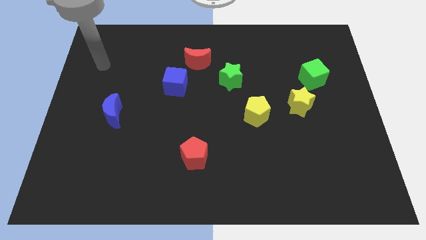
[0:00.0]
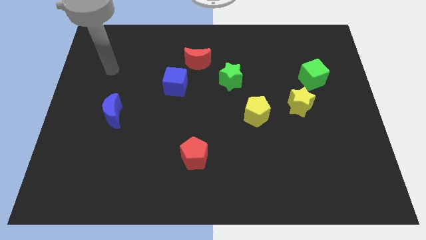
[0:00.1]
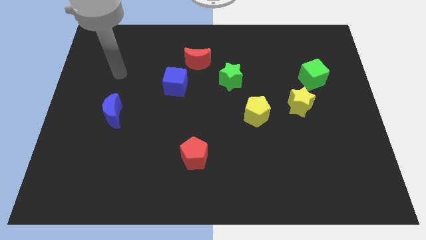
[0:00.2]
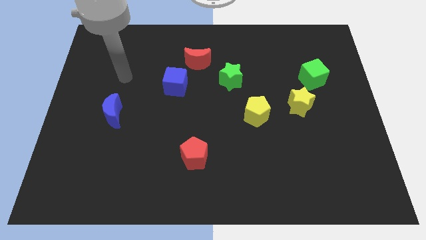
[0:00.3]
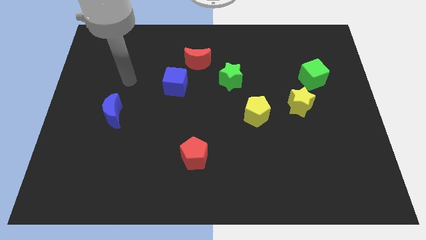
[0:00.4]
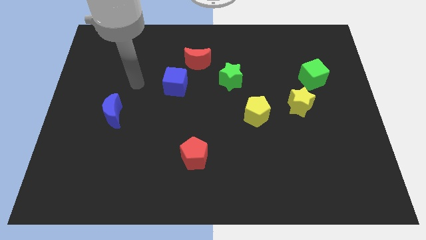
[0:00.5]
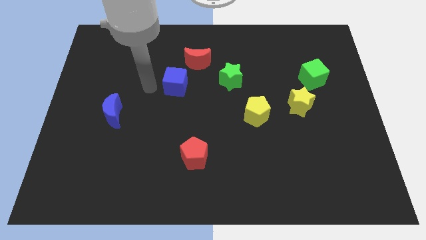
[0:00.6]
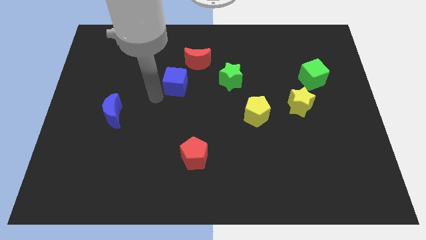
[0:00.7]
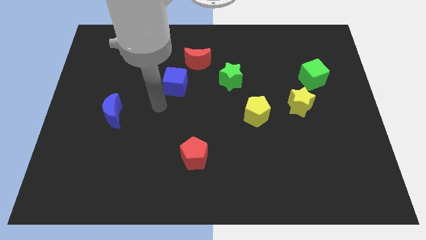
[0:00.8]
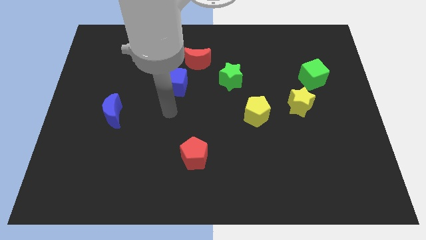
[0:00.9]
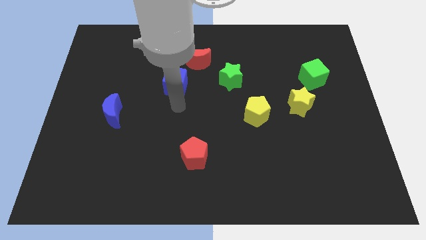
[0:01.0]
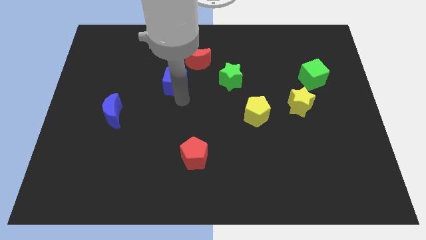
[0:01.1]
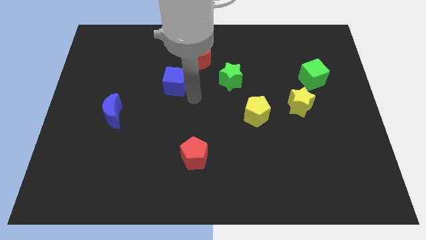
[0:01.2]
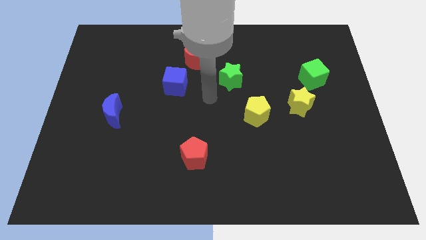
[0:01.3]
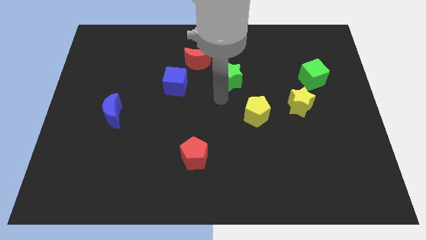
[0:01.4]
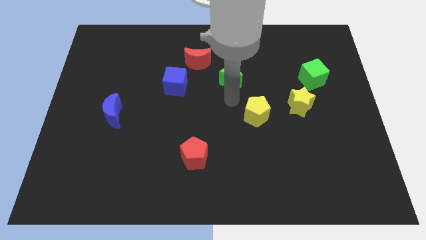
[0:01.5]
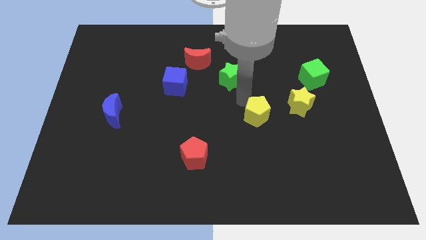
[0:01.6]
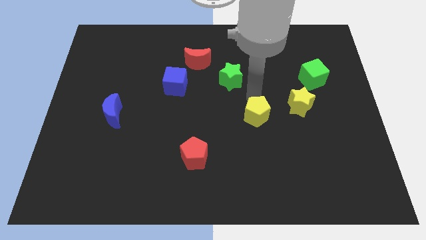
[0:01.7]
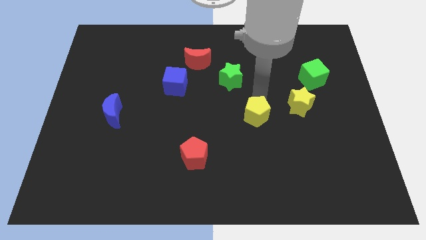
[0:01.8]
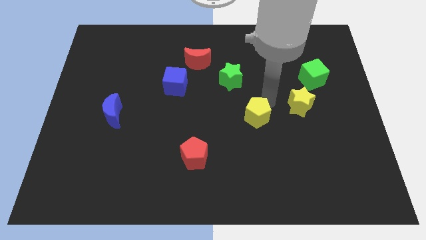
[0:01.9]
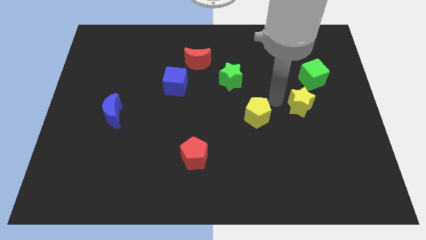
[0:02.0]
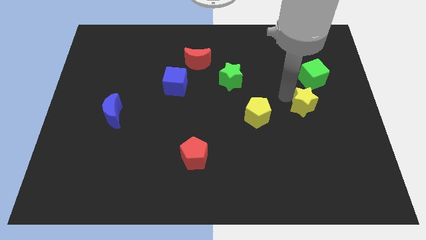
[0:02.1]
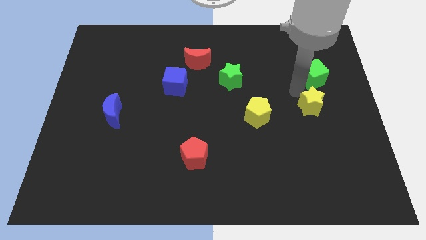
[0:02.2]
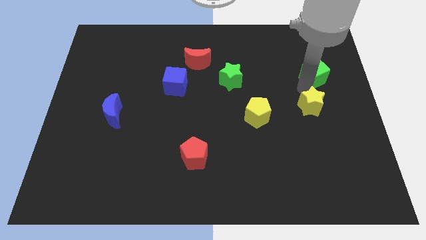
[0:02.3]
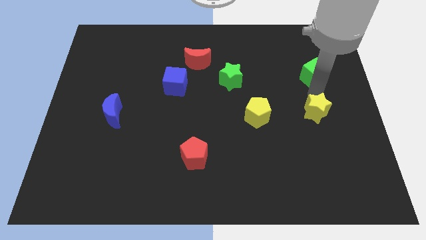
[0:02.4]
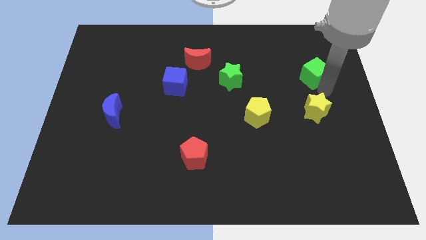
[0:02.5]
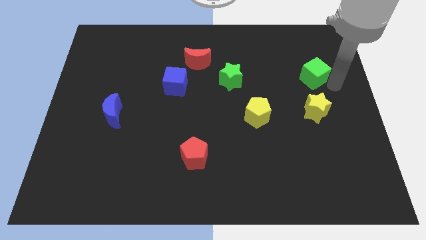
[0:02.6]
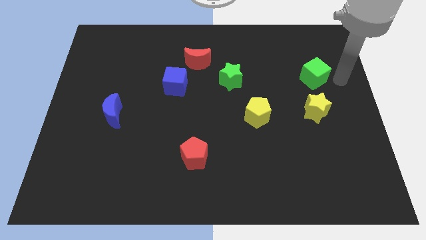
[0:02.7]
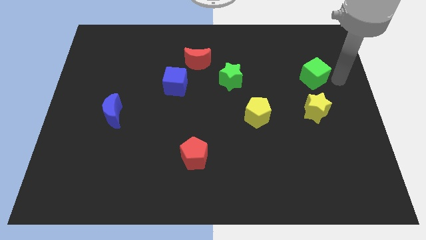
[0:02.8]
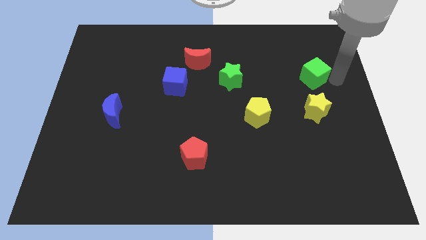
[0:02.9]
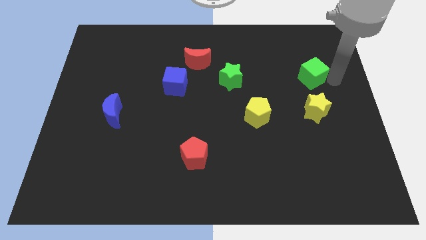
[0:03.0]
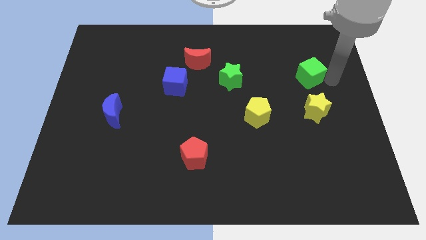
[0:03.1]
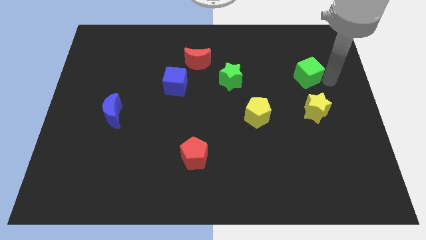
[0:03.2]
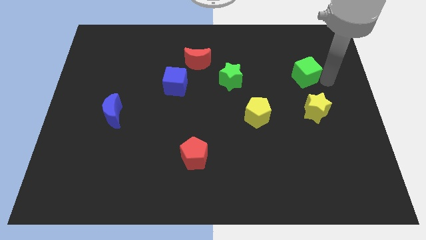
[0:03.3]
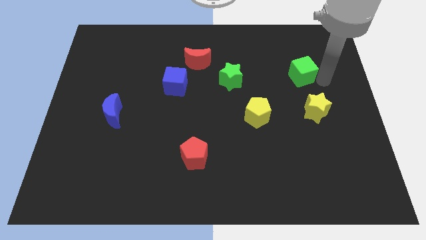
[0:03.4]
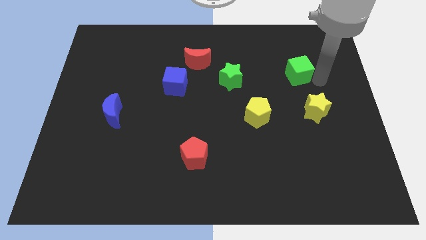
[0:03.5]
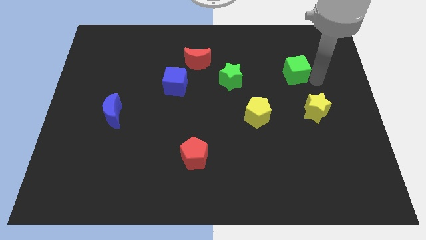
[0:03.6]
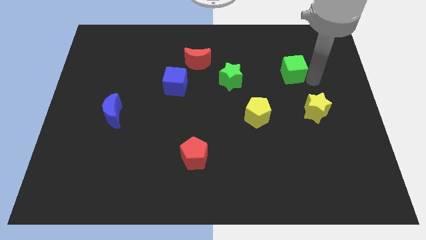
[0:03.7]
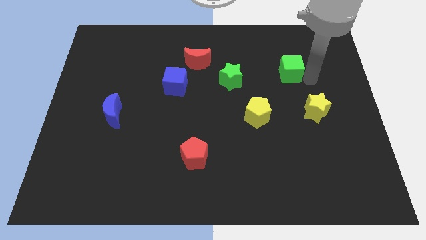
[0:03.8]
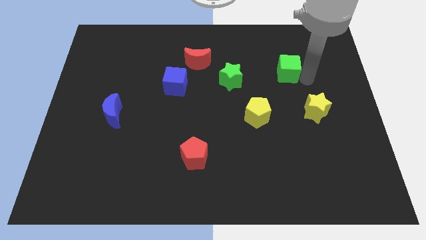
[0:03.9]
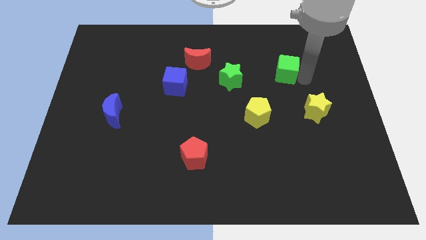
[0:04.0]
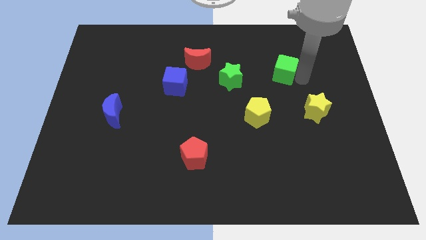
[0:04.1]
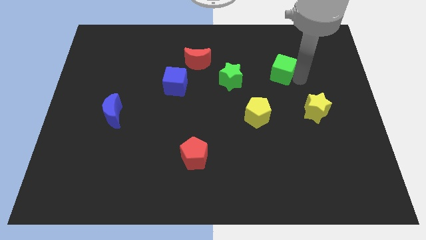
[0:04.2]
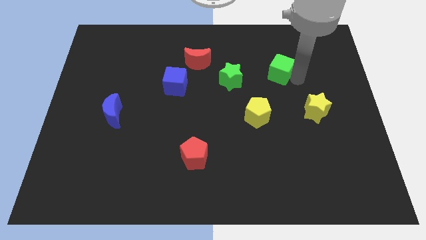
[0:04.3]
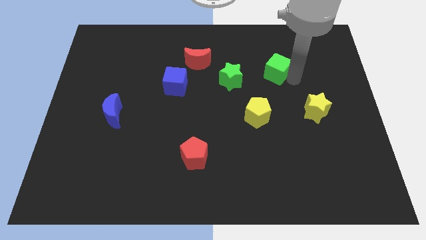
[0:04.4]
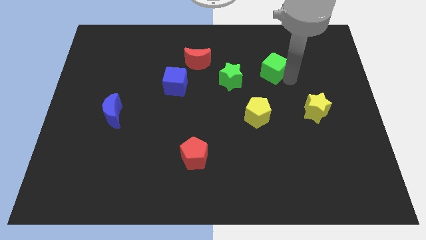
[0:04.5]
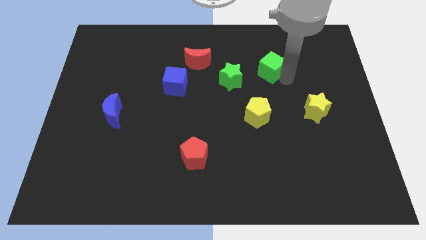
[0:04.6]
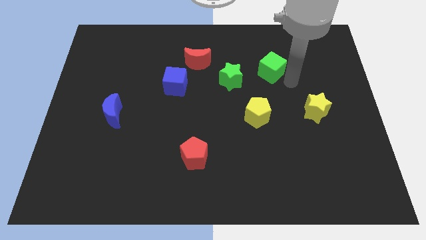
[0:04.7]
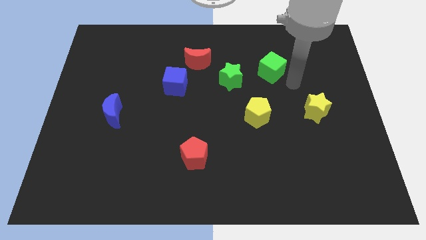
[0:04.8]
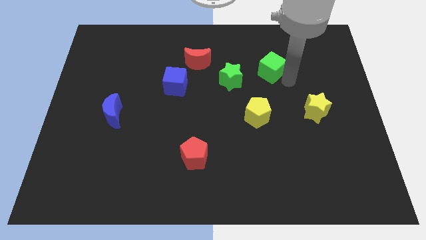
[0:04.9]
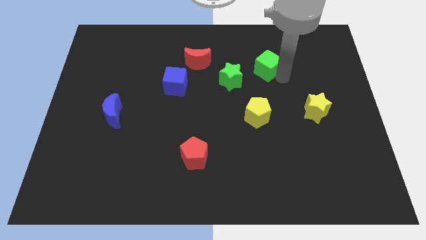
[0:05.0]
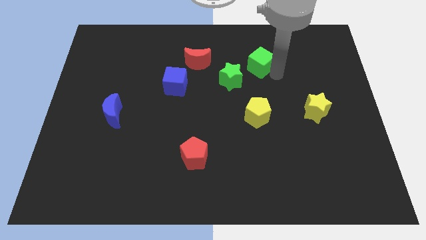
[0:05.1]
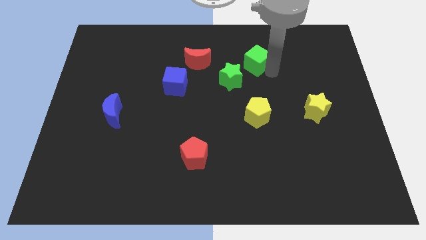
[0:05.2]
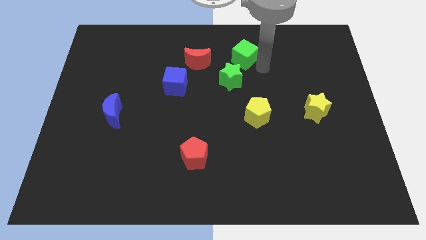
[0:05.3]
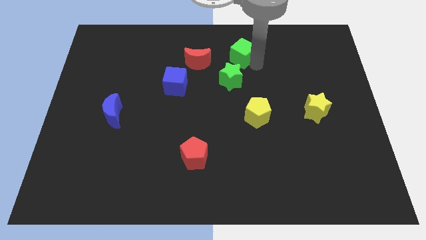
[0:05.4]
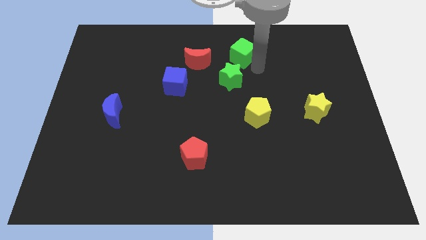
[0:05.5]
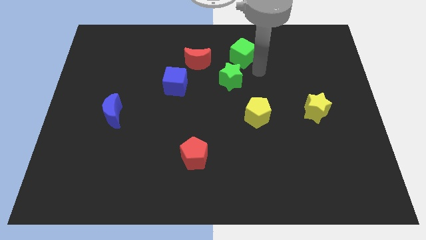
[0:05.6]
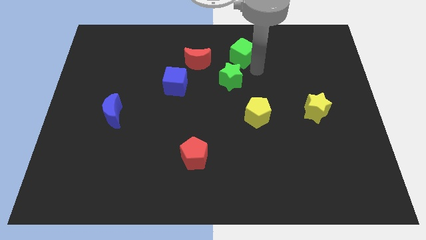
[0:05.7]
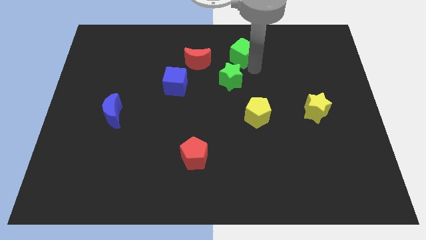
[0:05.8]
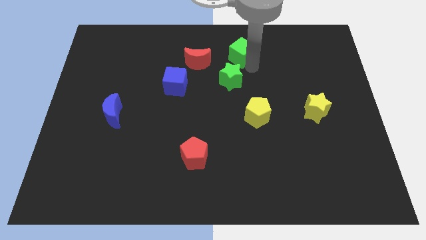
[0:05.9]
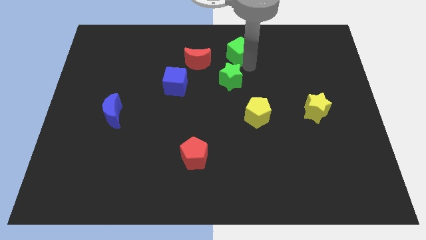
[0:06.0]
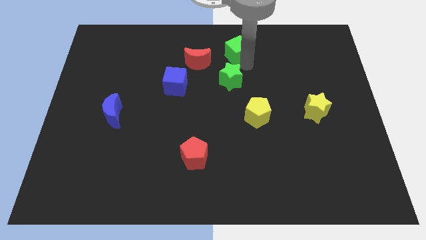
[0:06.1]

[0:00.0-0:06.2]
push the green cube to the top side
